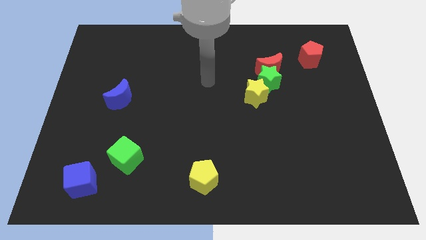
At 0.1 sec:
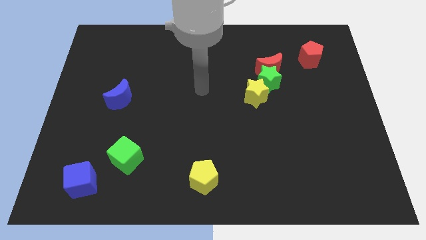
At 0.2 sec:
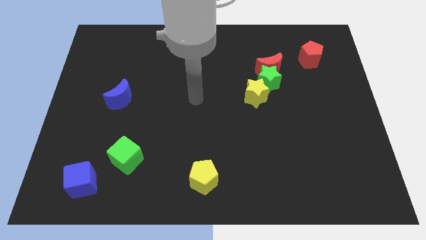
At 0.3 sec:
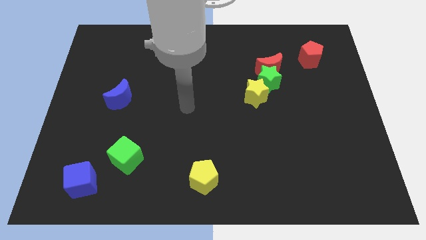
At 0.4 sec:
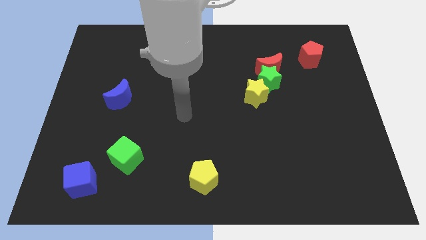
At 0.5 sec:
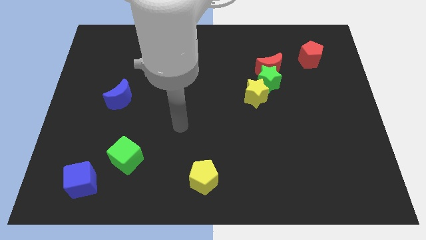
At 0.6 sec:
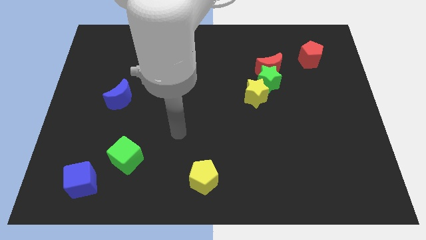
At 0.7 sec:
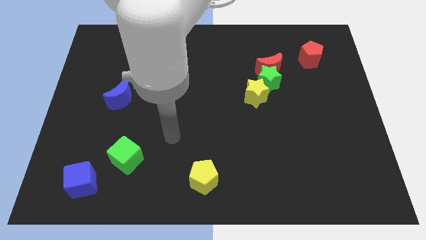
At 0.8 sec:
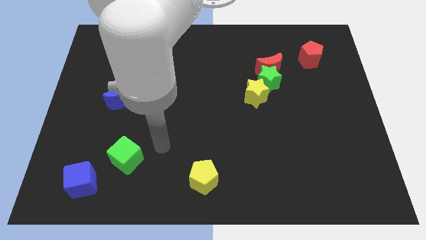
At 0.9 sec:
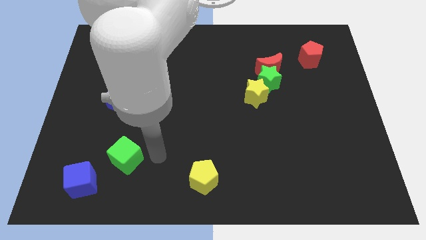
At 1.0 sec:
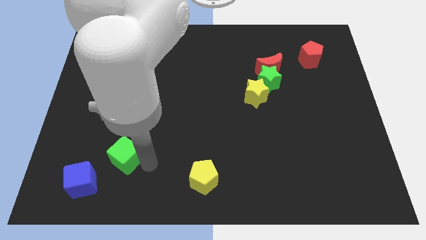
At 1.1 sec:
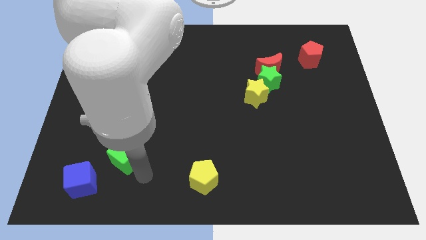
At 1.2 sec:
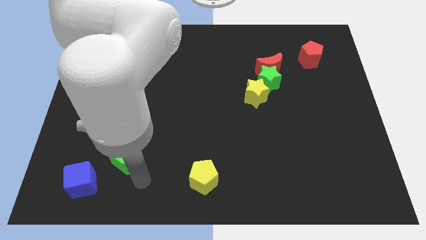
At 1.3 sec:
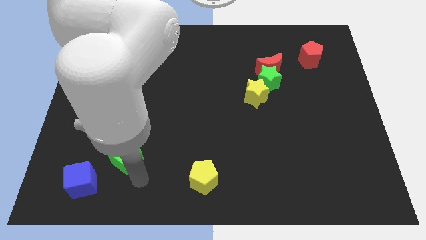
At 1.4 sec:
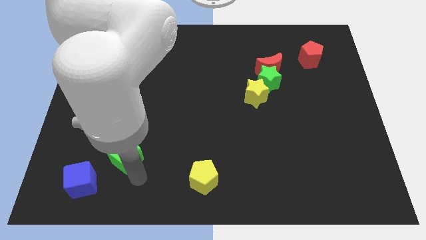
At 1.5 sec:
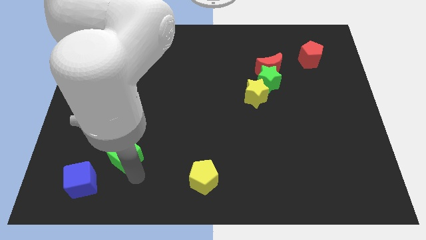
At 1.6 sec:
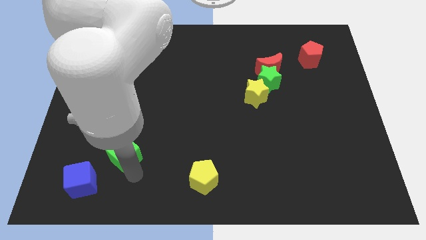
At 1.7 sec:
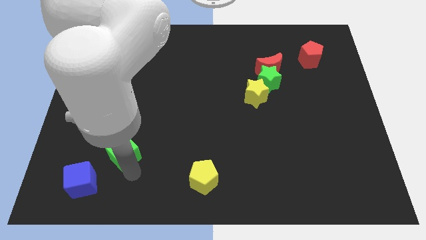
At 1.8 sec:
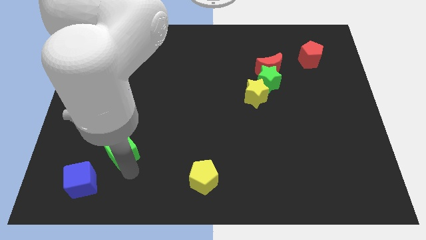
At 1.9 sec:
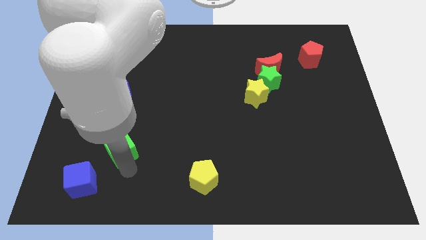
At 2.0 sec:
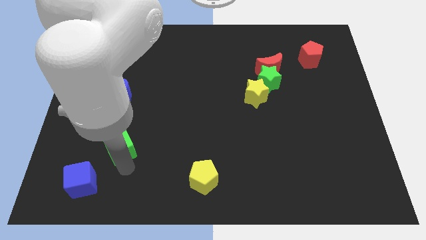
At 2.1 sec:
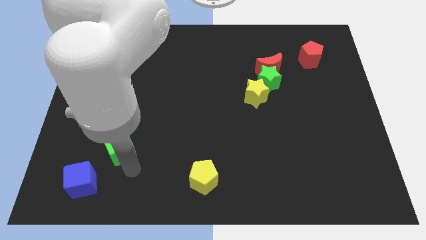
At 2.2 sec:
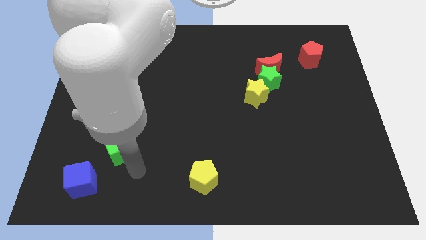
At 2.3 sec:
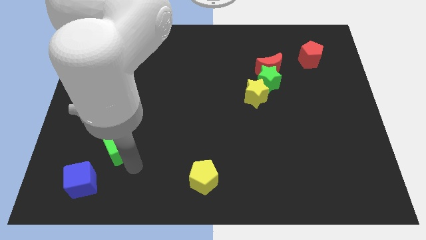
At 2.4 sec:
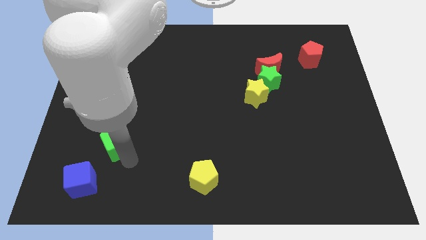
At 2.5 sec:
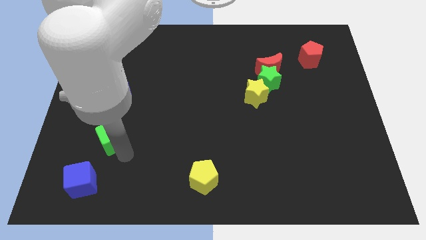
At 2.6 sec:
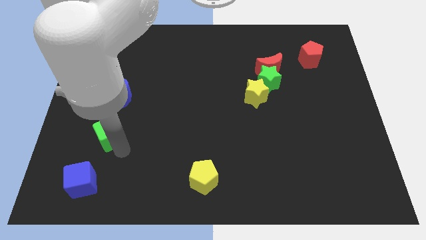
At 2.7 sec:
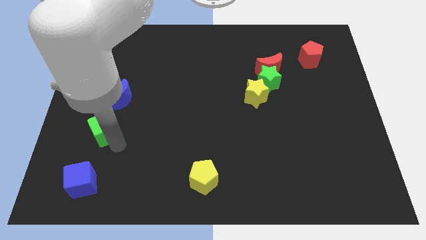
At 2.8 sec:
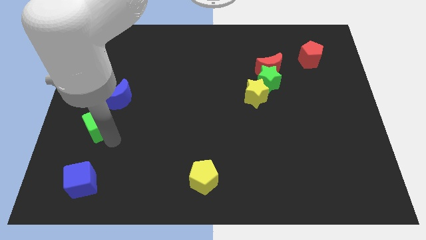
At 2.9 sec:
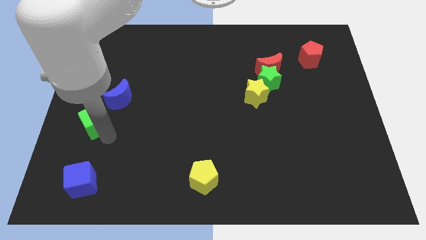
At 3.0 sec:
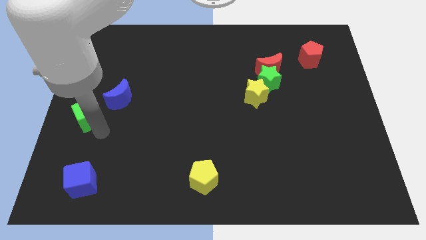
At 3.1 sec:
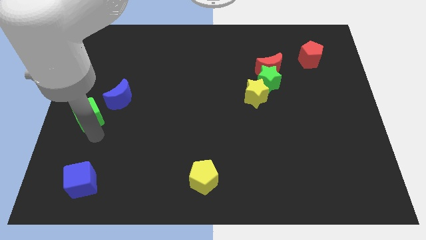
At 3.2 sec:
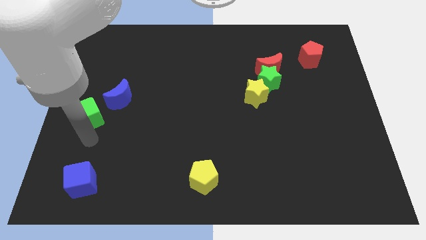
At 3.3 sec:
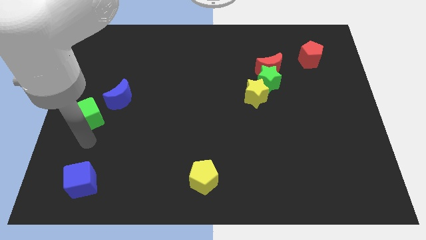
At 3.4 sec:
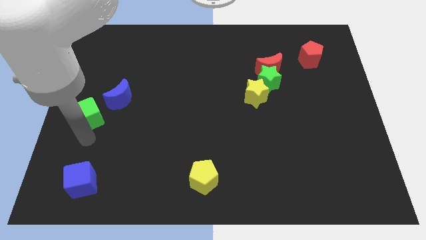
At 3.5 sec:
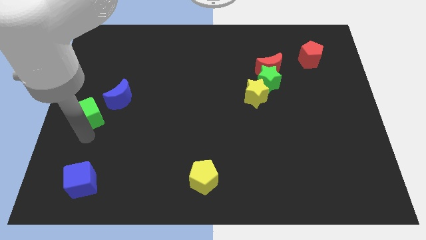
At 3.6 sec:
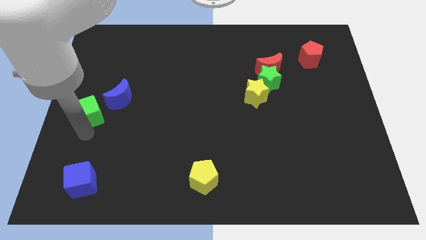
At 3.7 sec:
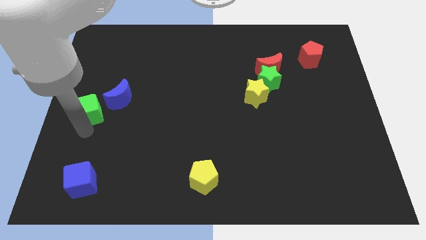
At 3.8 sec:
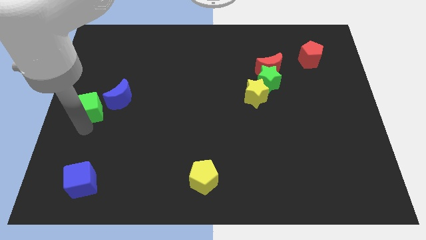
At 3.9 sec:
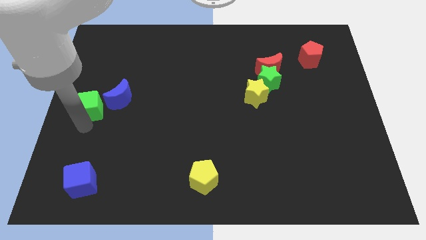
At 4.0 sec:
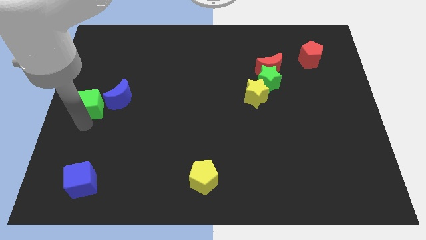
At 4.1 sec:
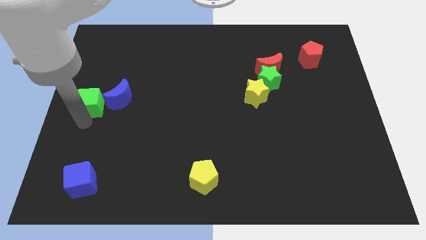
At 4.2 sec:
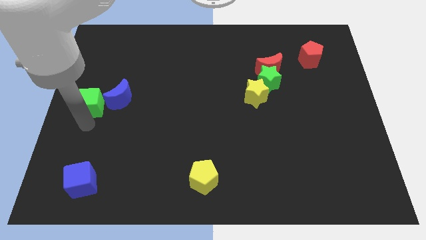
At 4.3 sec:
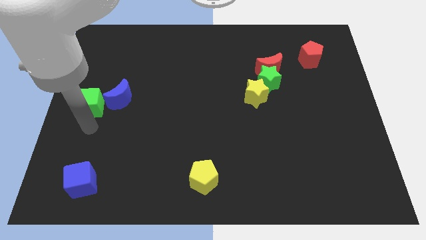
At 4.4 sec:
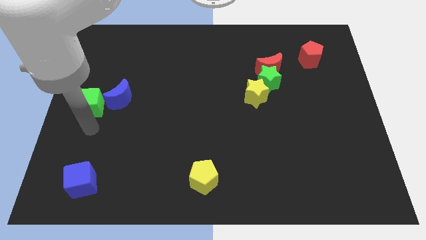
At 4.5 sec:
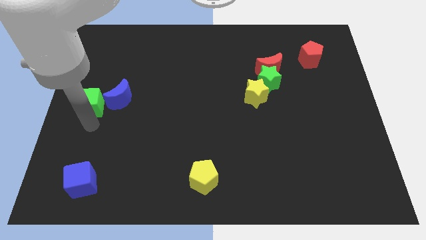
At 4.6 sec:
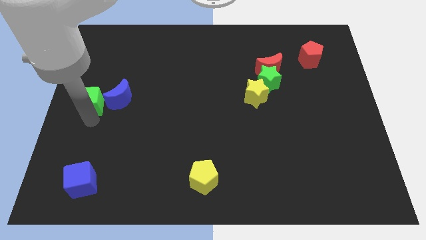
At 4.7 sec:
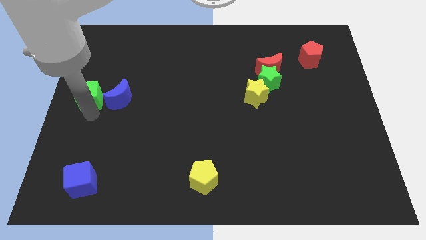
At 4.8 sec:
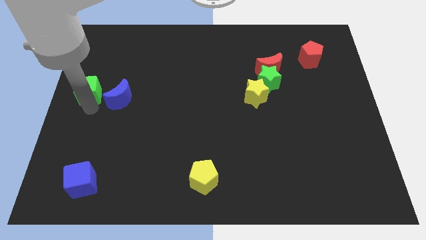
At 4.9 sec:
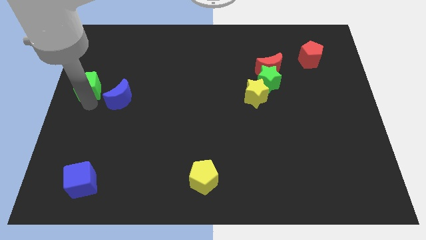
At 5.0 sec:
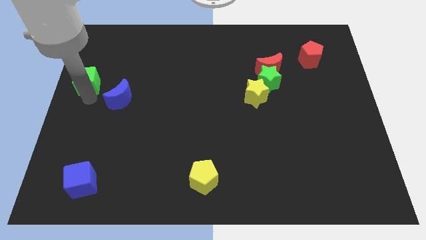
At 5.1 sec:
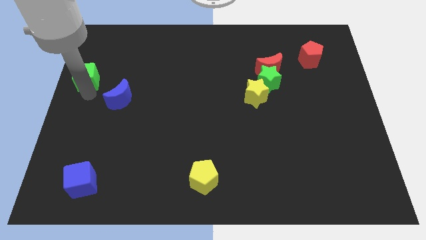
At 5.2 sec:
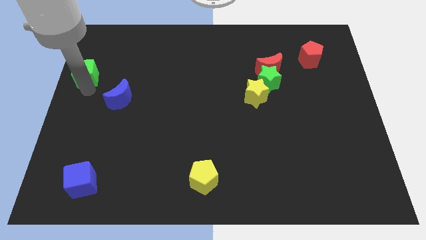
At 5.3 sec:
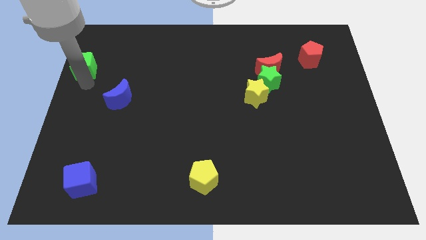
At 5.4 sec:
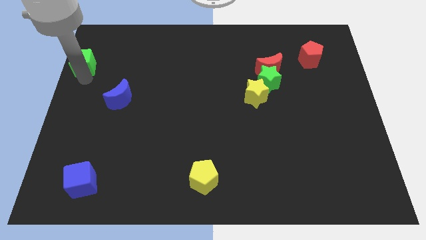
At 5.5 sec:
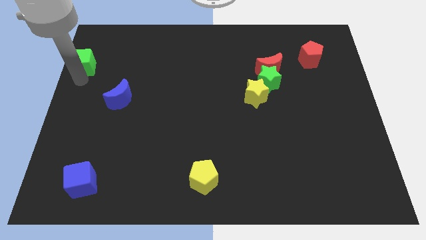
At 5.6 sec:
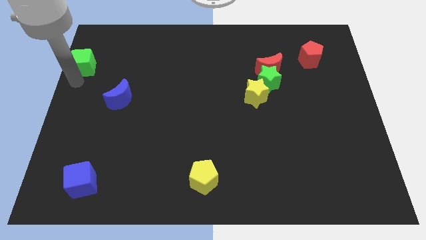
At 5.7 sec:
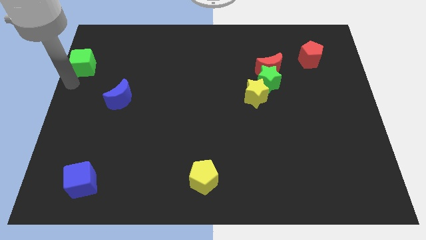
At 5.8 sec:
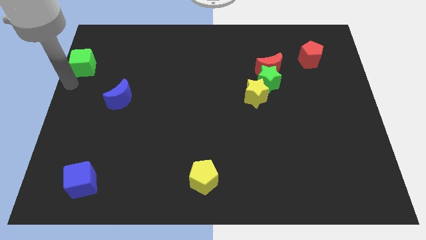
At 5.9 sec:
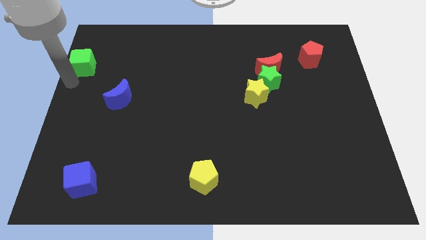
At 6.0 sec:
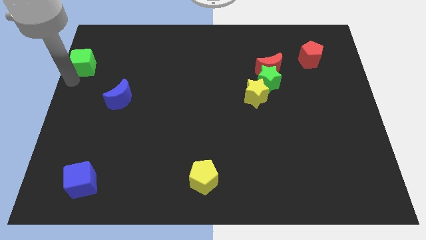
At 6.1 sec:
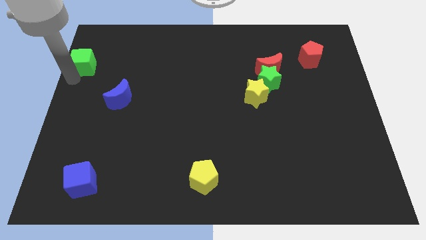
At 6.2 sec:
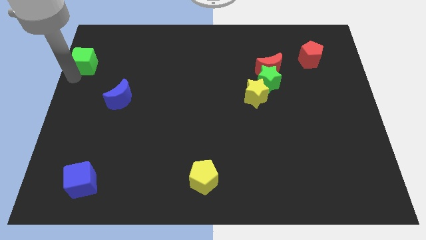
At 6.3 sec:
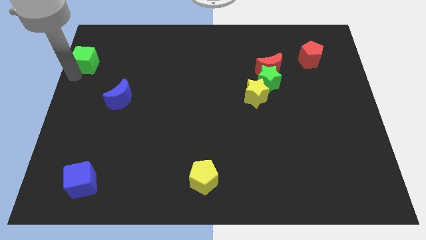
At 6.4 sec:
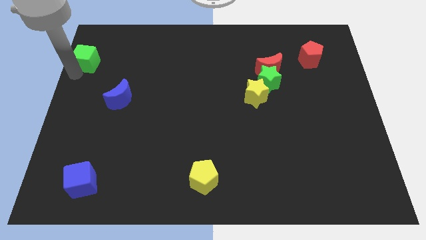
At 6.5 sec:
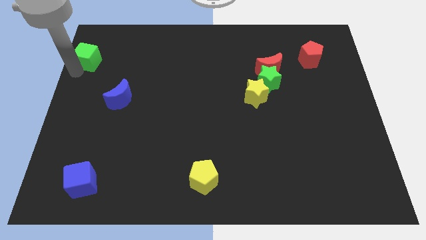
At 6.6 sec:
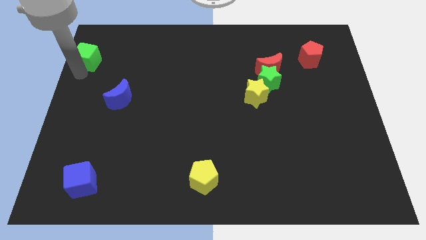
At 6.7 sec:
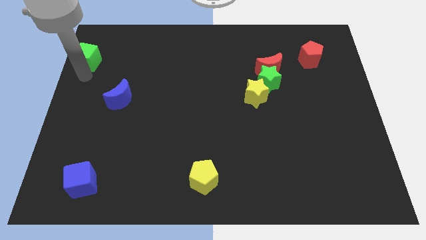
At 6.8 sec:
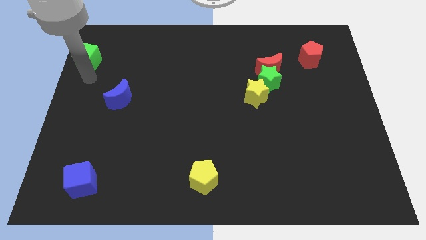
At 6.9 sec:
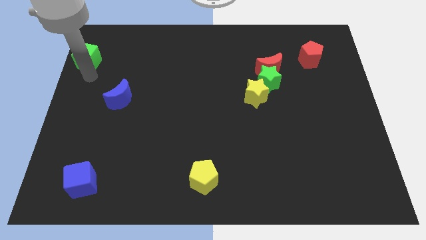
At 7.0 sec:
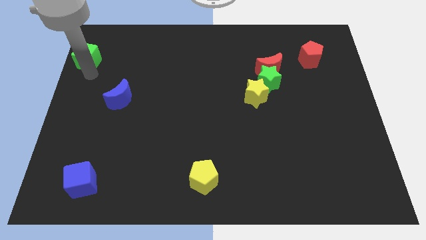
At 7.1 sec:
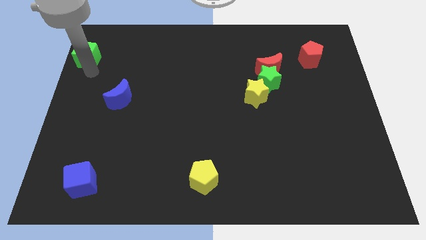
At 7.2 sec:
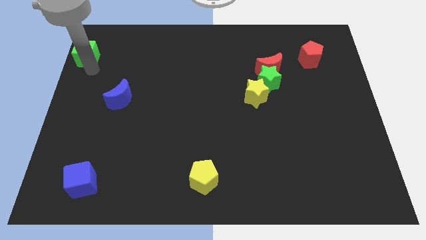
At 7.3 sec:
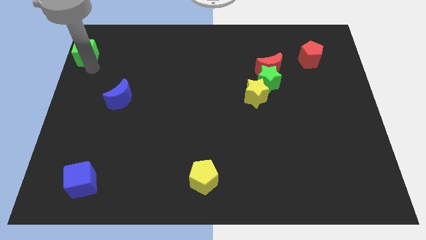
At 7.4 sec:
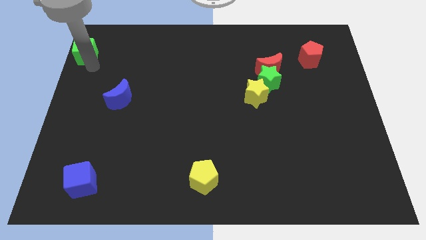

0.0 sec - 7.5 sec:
put the green cube to the top left corner
